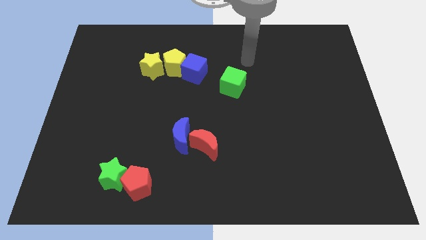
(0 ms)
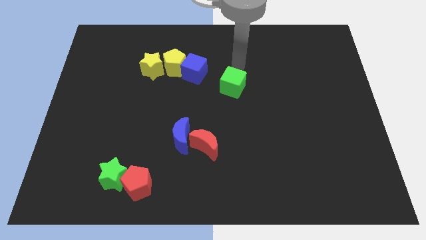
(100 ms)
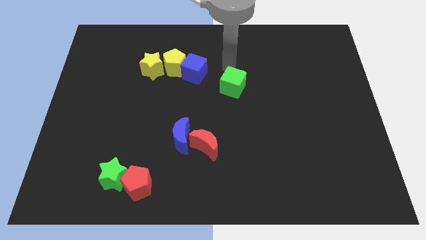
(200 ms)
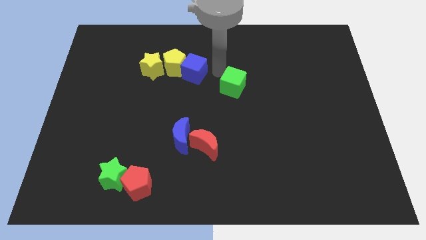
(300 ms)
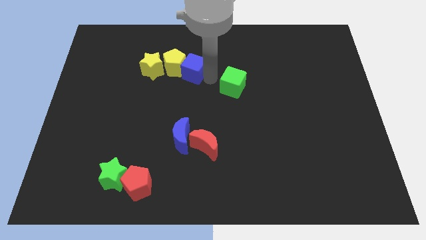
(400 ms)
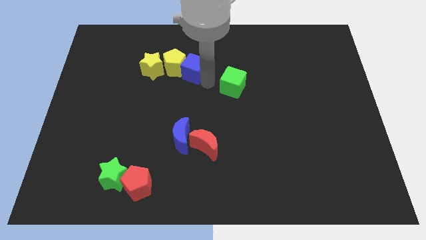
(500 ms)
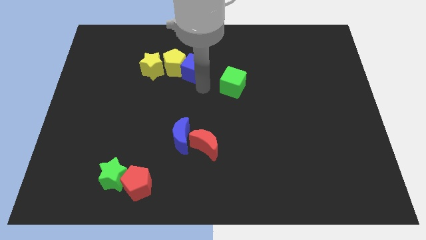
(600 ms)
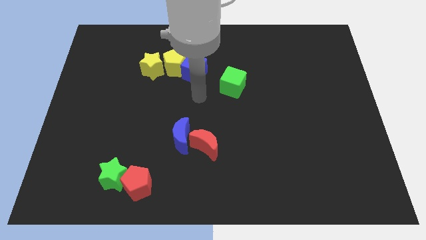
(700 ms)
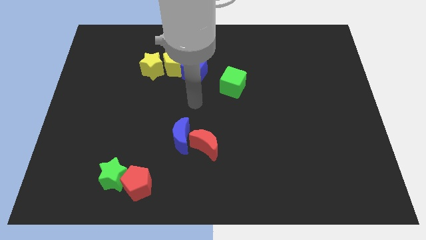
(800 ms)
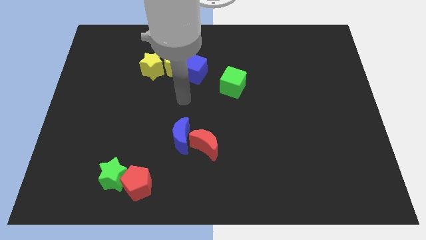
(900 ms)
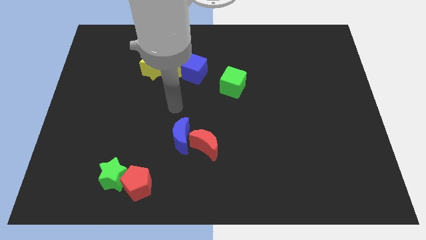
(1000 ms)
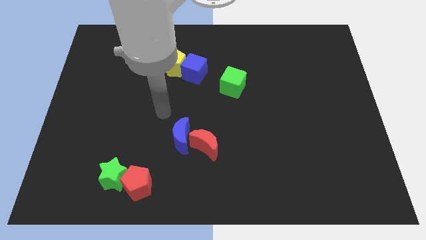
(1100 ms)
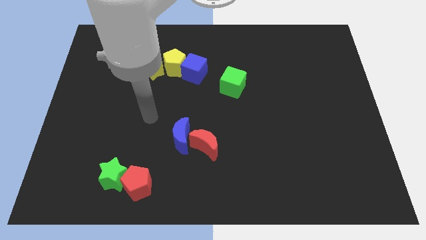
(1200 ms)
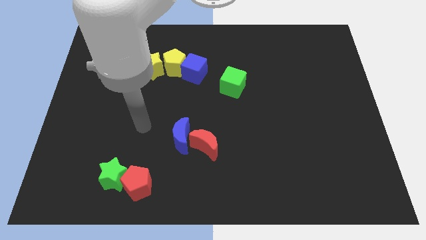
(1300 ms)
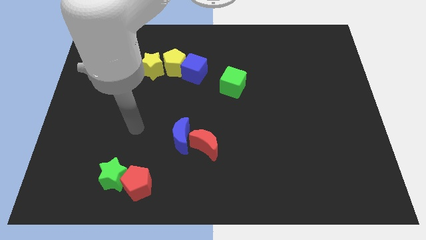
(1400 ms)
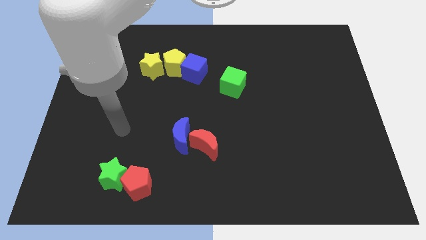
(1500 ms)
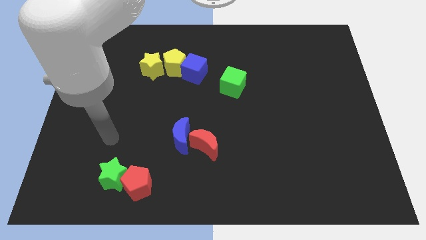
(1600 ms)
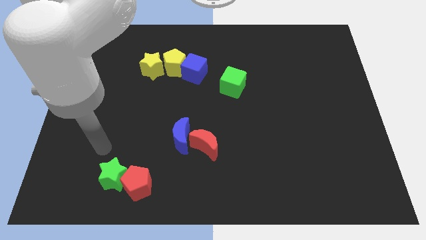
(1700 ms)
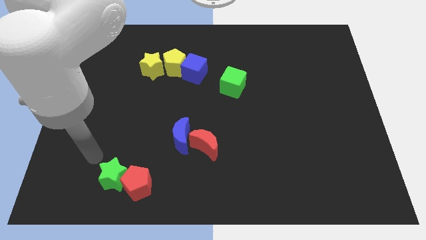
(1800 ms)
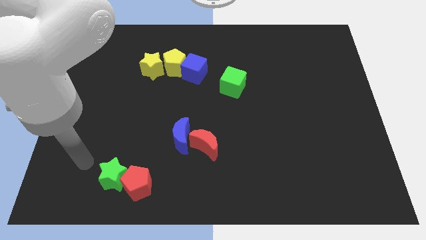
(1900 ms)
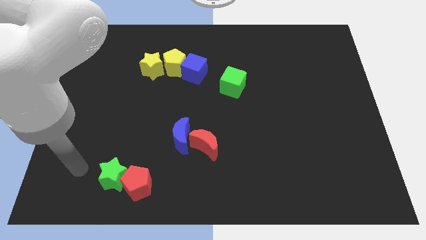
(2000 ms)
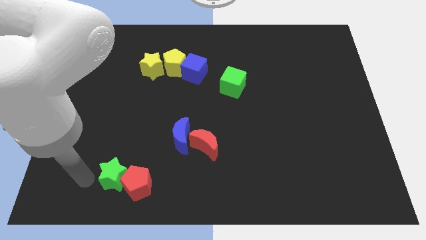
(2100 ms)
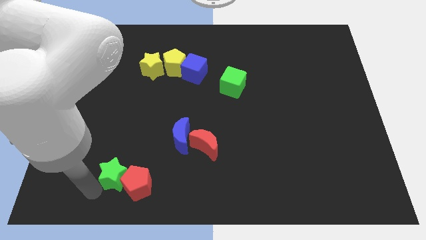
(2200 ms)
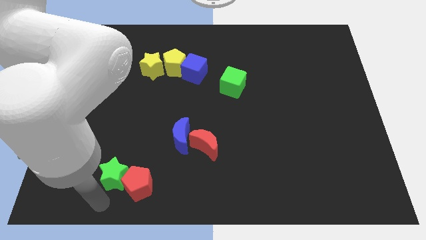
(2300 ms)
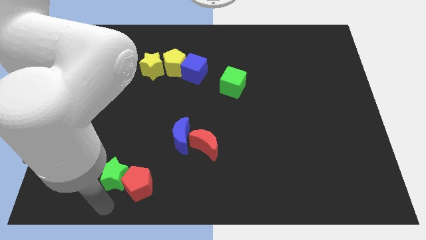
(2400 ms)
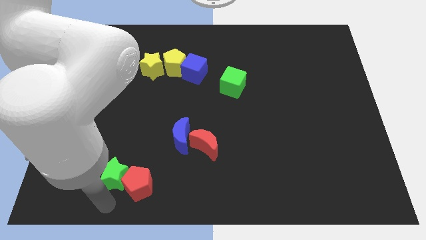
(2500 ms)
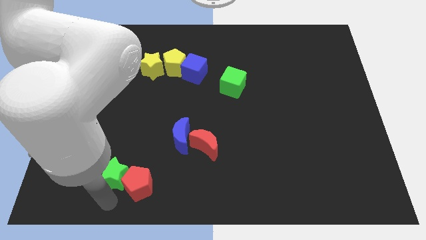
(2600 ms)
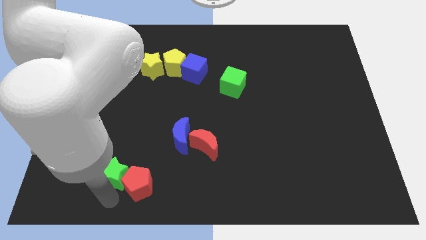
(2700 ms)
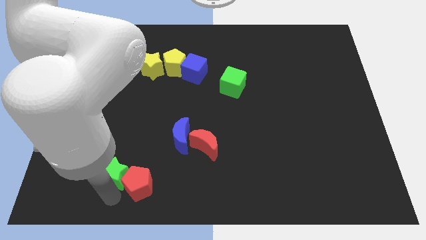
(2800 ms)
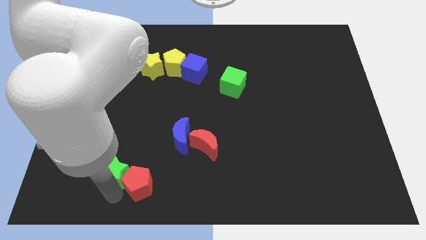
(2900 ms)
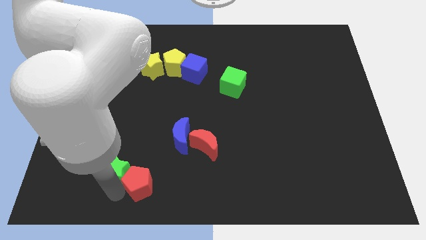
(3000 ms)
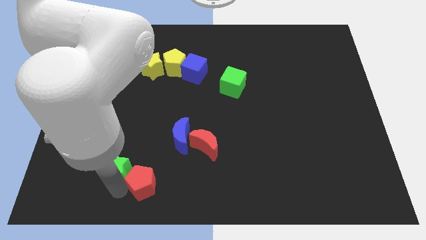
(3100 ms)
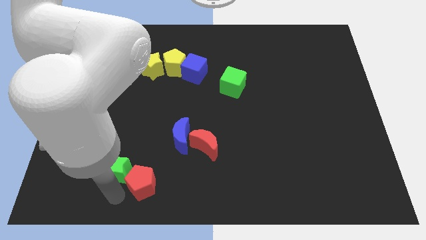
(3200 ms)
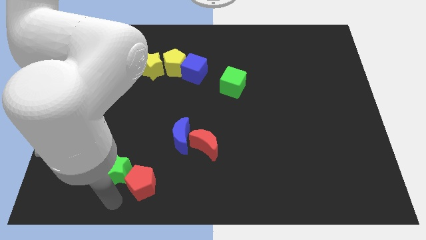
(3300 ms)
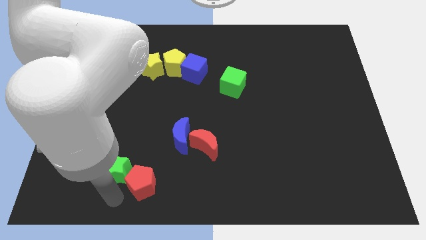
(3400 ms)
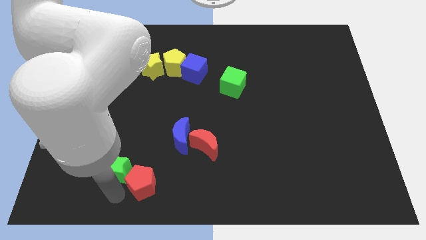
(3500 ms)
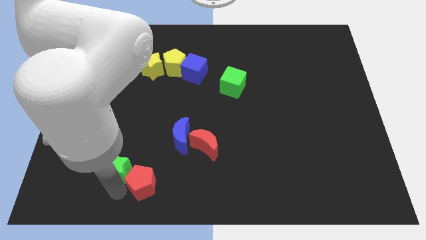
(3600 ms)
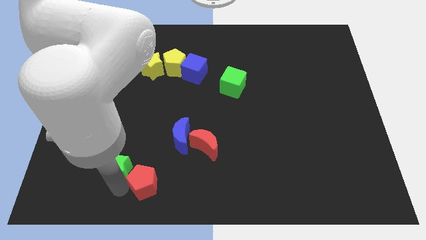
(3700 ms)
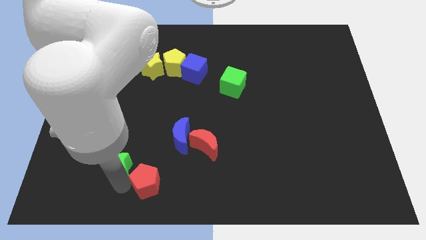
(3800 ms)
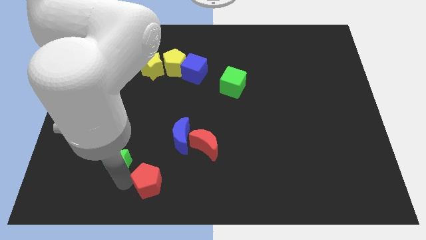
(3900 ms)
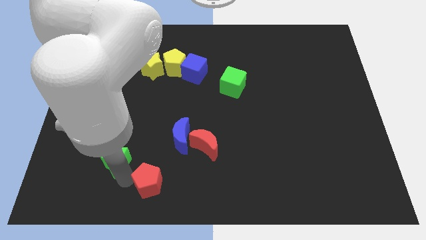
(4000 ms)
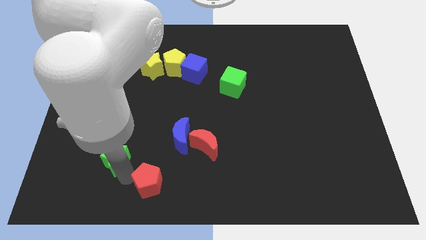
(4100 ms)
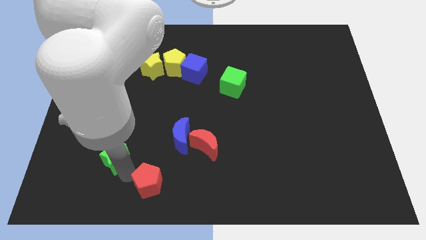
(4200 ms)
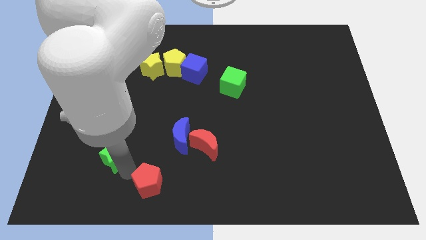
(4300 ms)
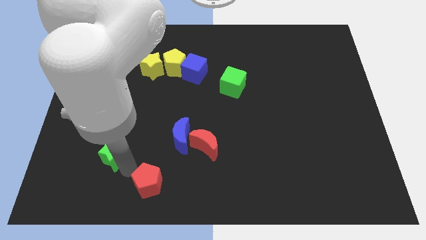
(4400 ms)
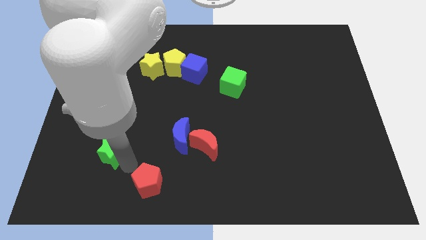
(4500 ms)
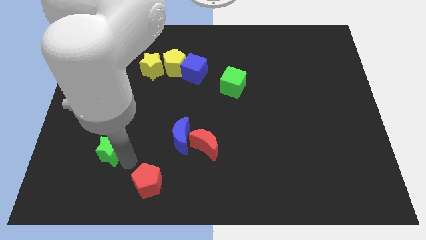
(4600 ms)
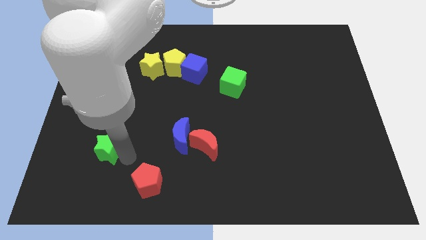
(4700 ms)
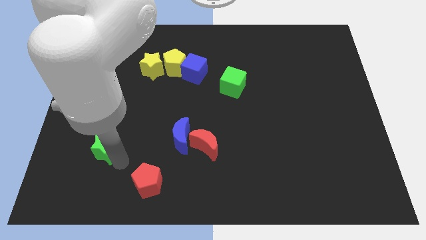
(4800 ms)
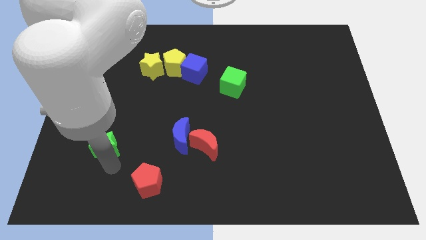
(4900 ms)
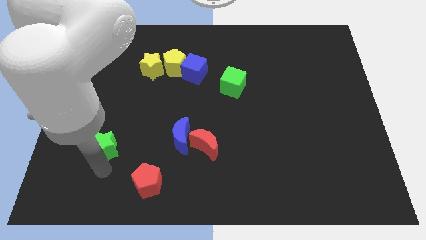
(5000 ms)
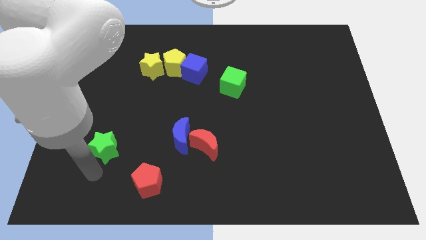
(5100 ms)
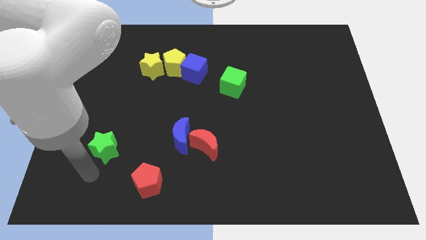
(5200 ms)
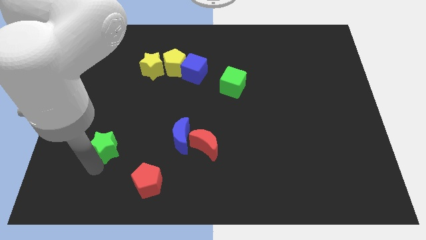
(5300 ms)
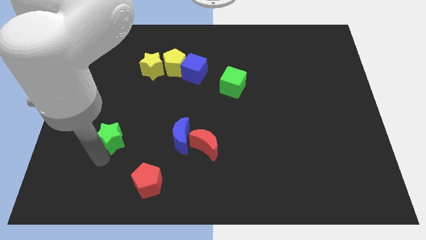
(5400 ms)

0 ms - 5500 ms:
slightly move the green star upwards

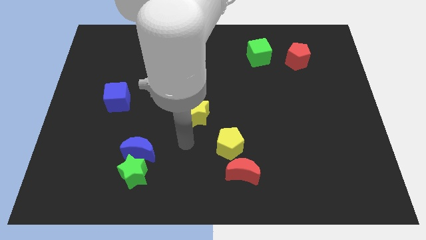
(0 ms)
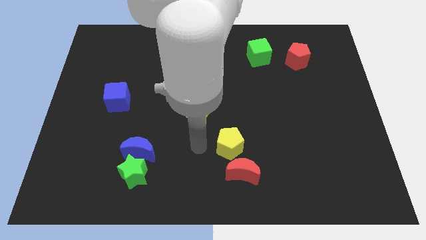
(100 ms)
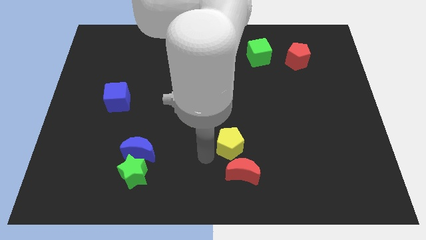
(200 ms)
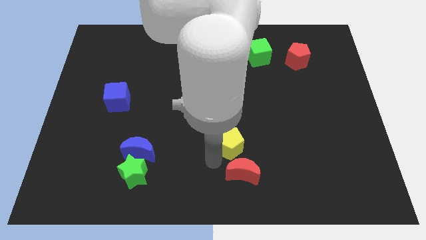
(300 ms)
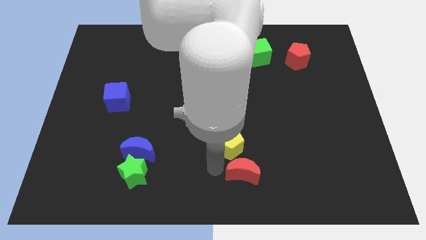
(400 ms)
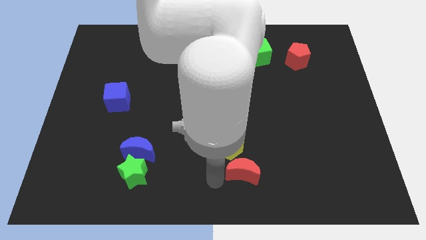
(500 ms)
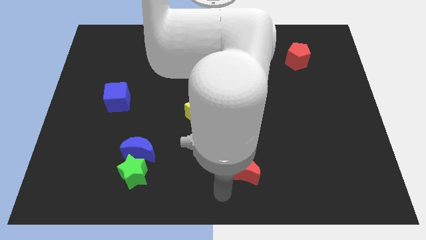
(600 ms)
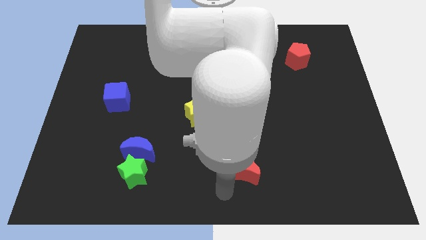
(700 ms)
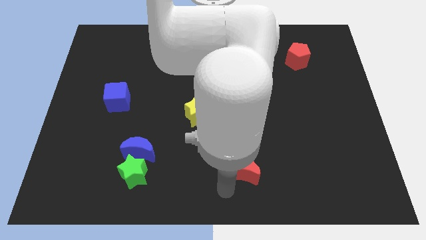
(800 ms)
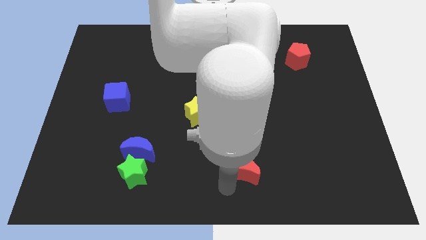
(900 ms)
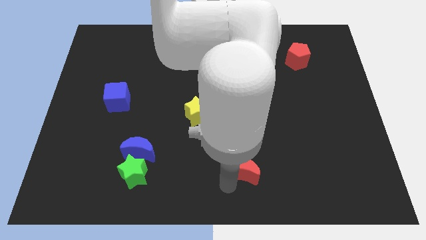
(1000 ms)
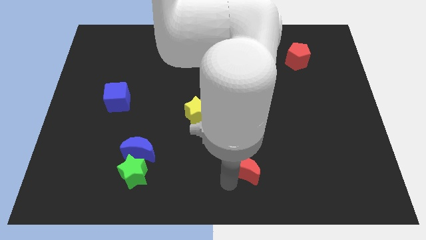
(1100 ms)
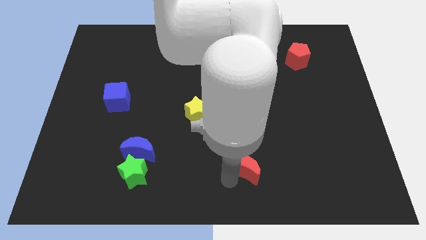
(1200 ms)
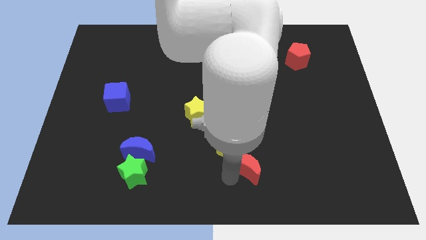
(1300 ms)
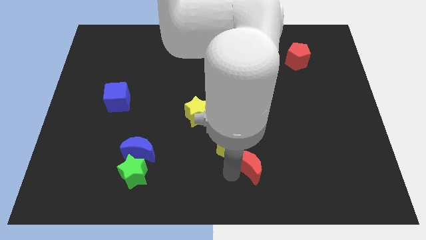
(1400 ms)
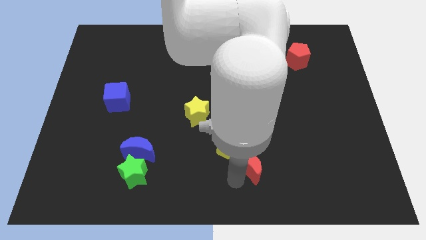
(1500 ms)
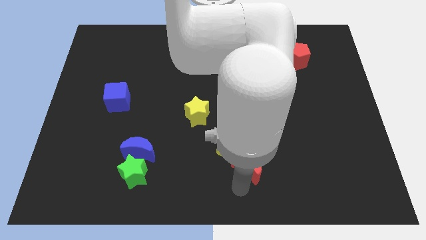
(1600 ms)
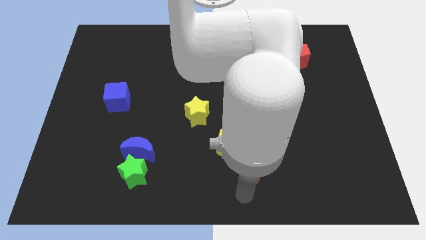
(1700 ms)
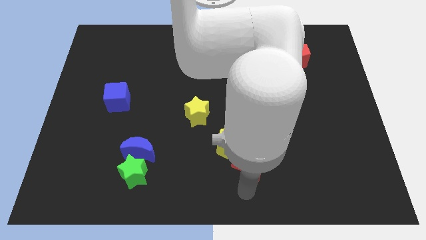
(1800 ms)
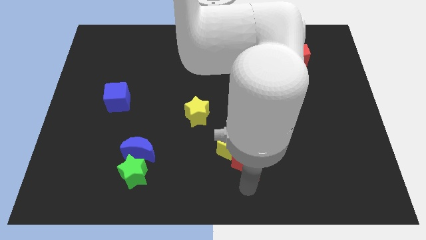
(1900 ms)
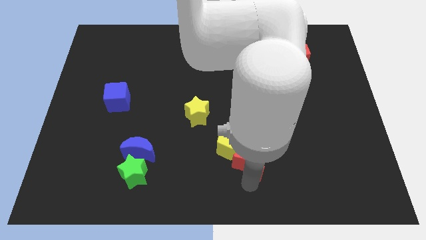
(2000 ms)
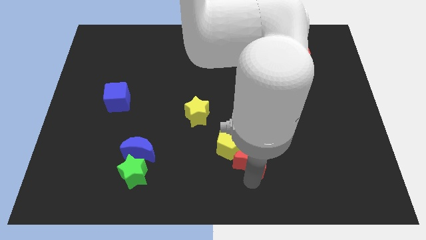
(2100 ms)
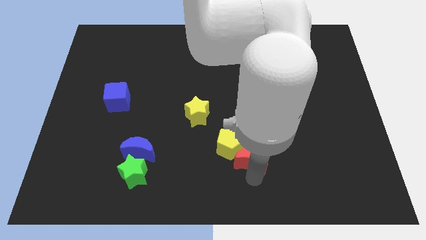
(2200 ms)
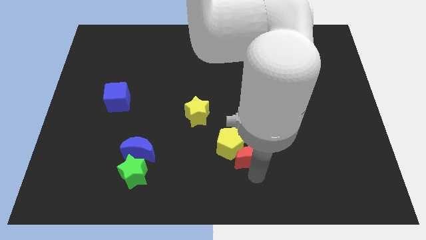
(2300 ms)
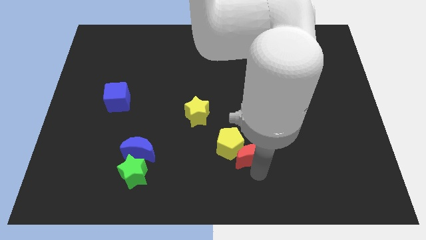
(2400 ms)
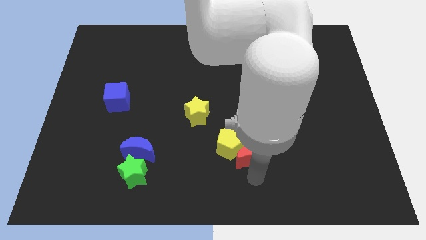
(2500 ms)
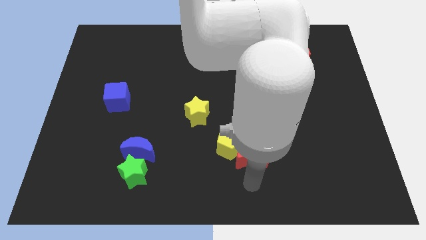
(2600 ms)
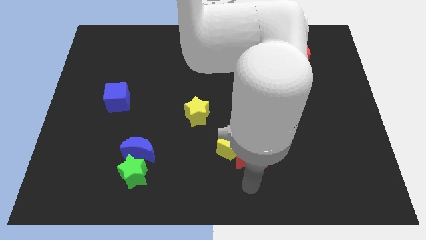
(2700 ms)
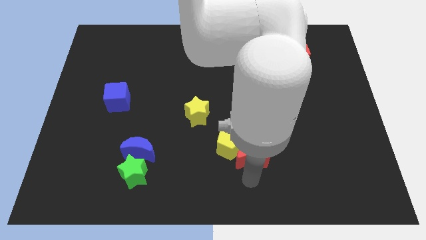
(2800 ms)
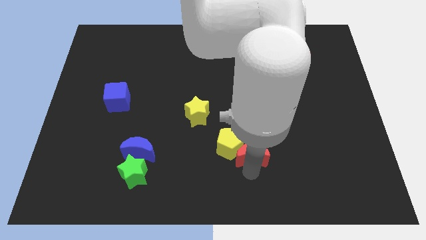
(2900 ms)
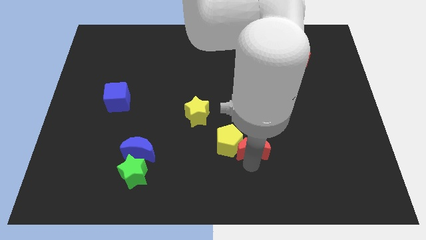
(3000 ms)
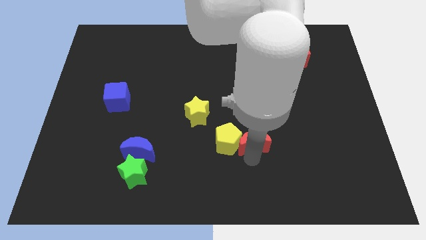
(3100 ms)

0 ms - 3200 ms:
push the red moon a bit up
